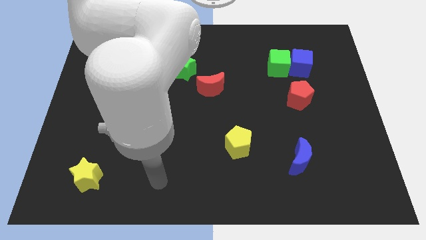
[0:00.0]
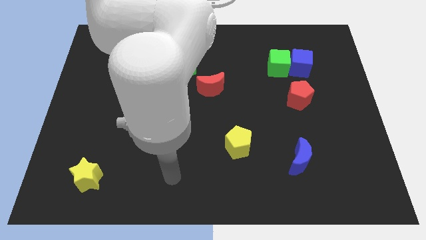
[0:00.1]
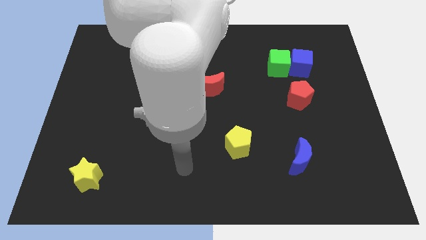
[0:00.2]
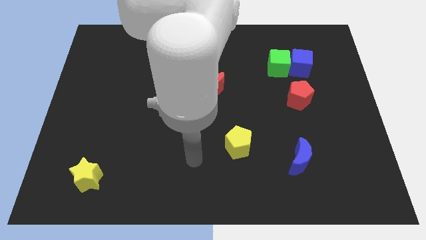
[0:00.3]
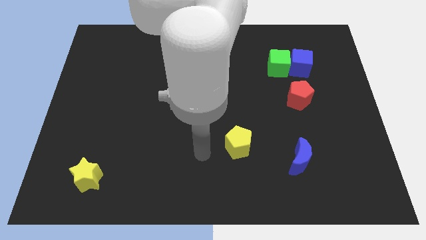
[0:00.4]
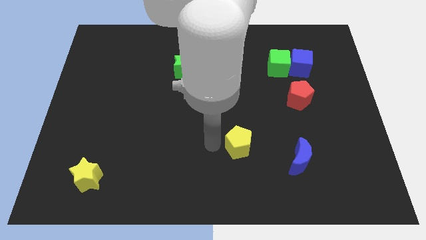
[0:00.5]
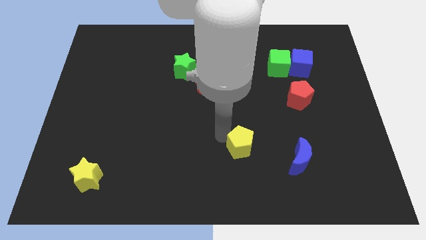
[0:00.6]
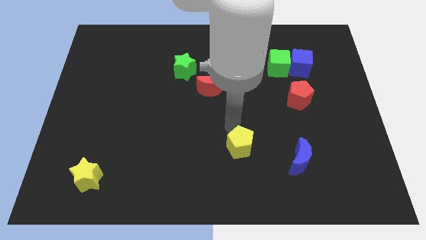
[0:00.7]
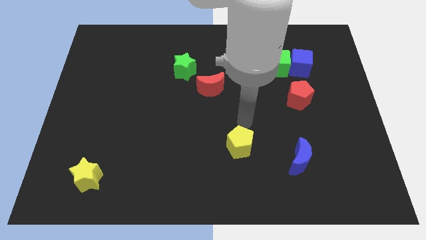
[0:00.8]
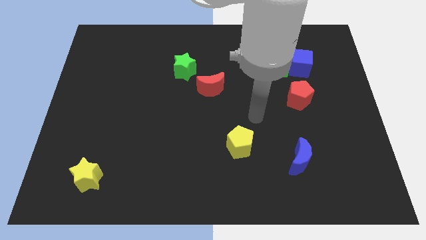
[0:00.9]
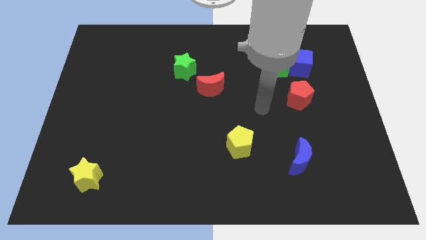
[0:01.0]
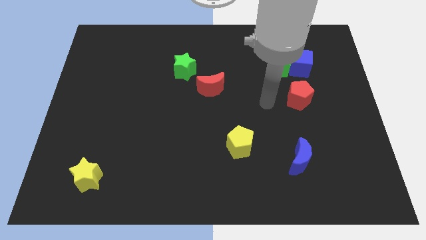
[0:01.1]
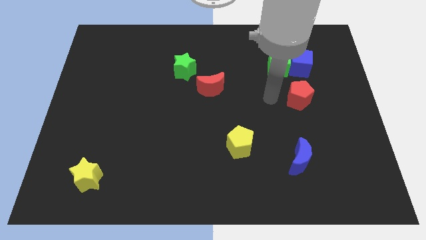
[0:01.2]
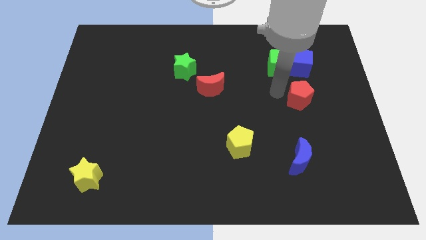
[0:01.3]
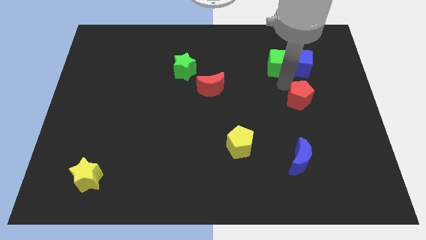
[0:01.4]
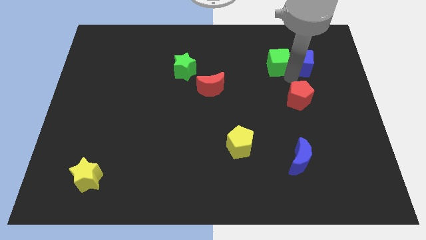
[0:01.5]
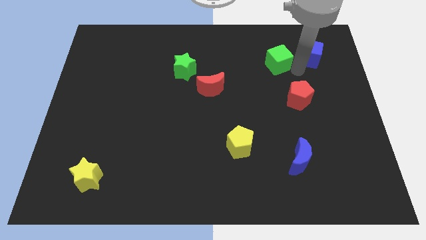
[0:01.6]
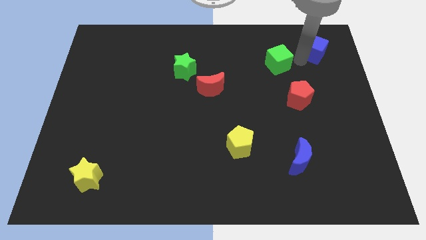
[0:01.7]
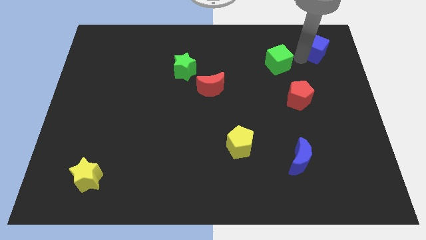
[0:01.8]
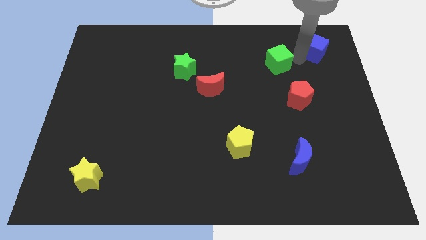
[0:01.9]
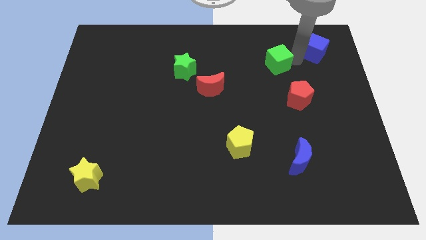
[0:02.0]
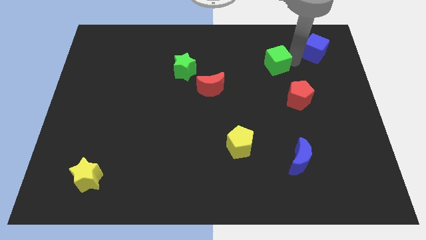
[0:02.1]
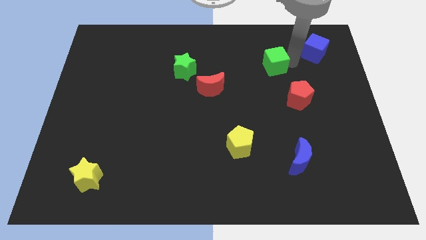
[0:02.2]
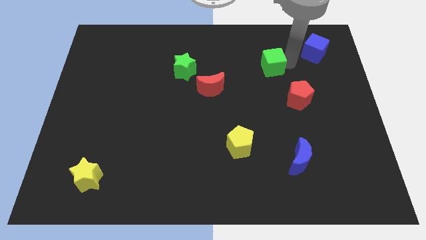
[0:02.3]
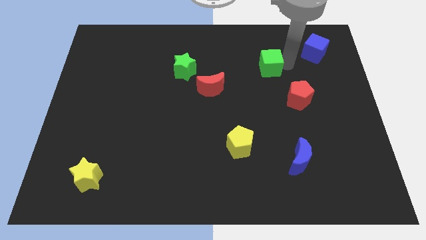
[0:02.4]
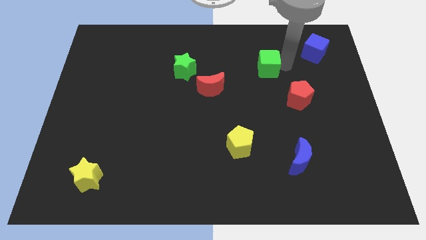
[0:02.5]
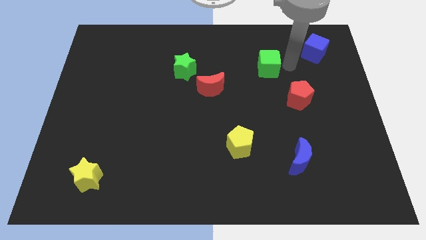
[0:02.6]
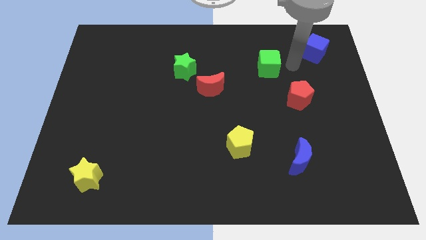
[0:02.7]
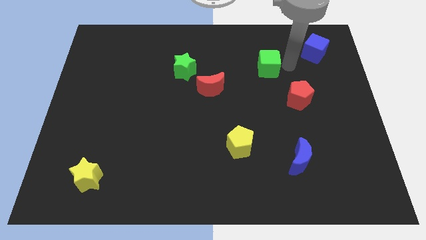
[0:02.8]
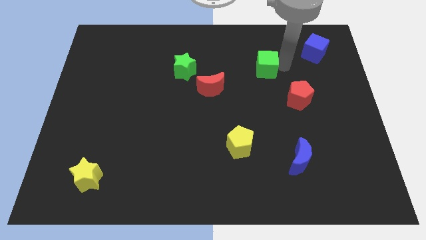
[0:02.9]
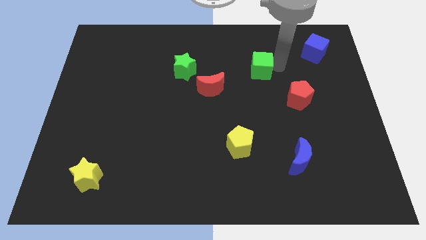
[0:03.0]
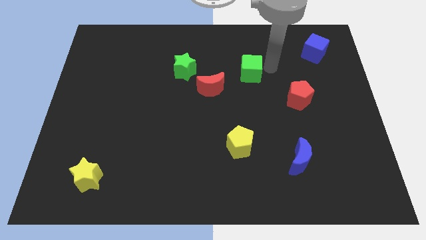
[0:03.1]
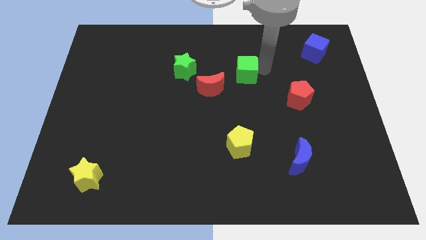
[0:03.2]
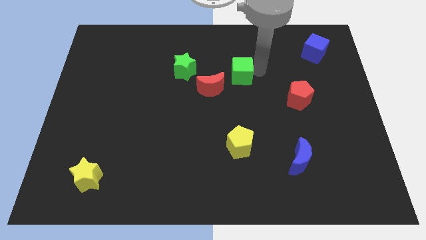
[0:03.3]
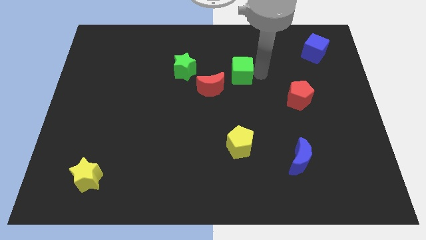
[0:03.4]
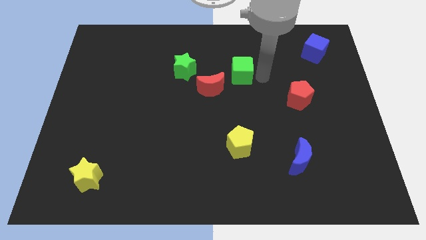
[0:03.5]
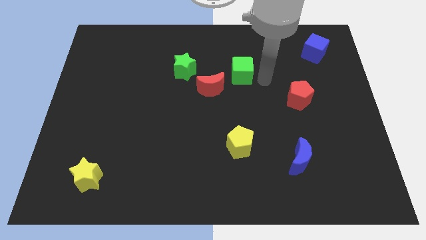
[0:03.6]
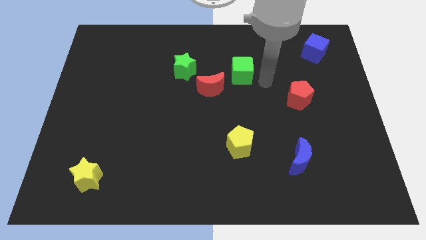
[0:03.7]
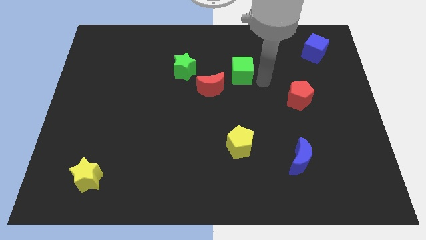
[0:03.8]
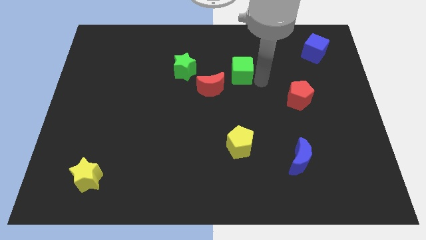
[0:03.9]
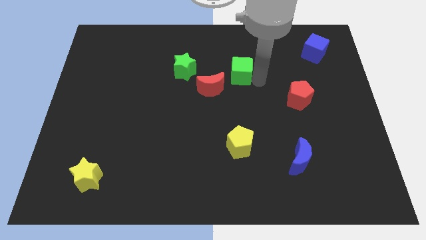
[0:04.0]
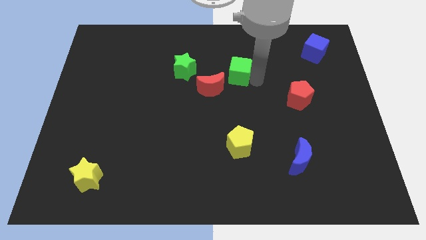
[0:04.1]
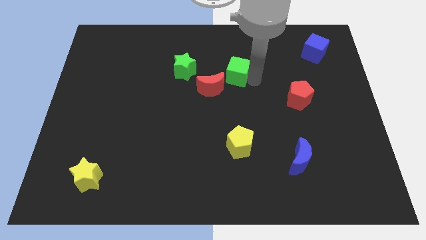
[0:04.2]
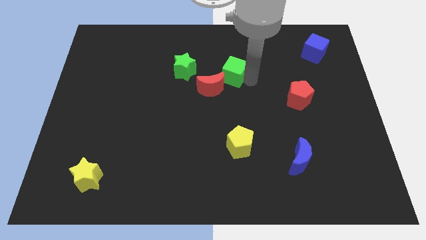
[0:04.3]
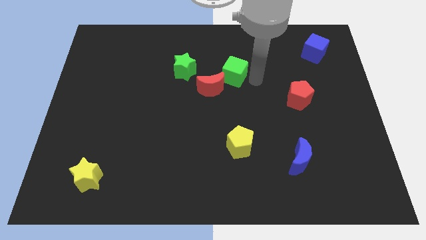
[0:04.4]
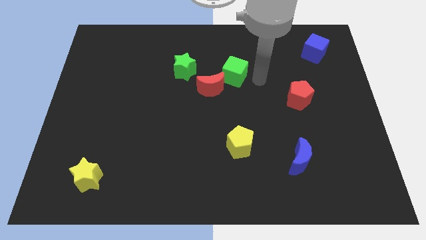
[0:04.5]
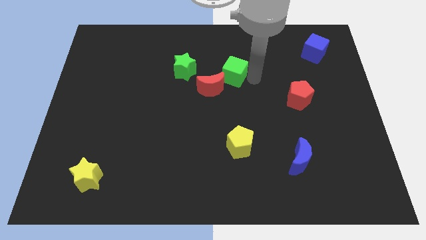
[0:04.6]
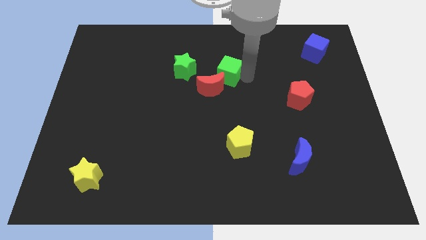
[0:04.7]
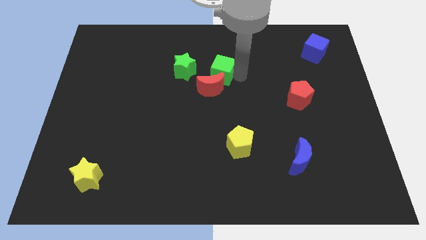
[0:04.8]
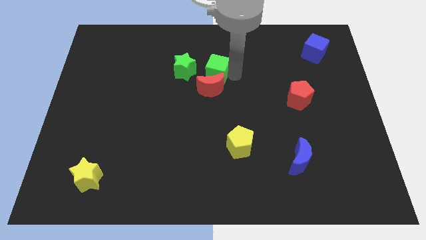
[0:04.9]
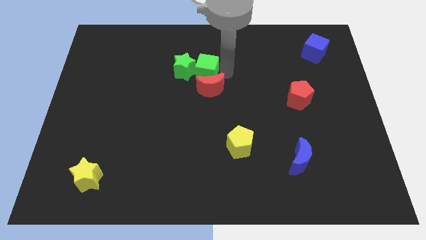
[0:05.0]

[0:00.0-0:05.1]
put the green cube towards the green star

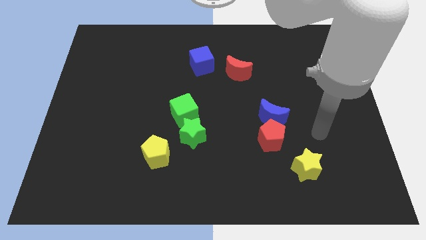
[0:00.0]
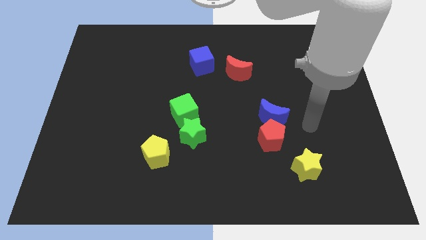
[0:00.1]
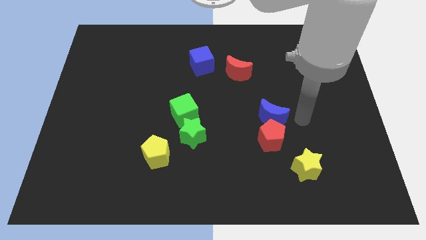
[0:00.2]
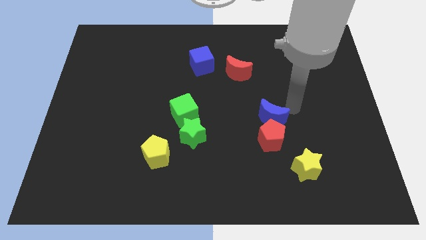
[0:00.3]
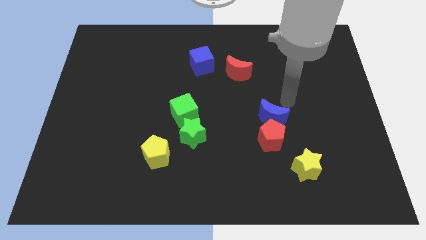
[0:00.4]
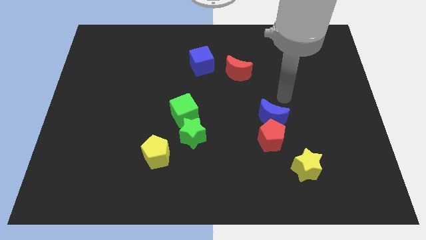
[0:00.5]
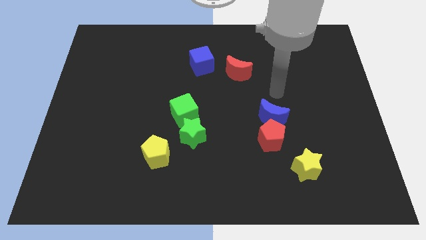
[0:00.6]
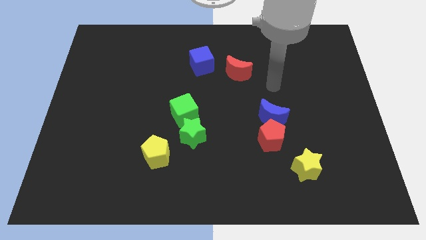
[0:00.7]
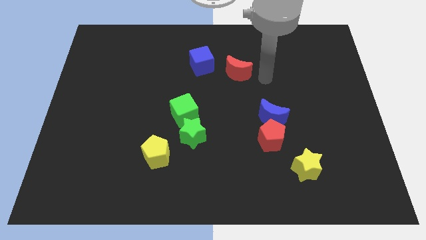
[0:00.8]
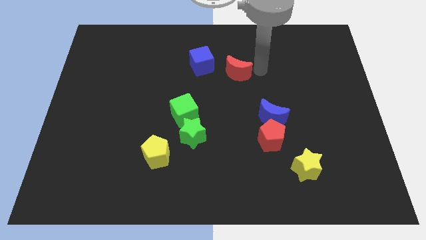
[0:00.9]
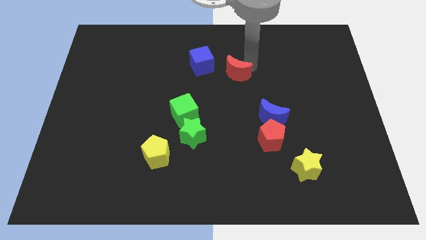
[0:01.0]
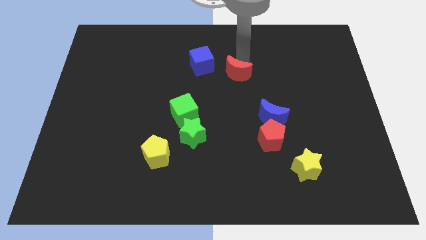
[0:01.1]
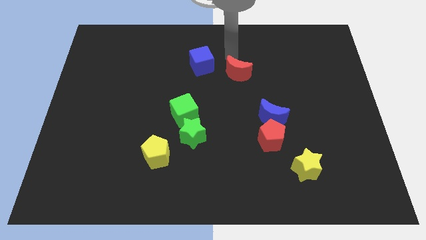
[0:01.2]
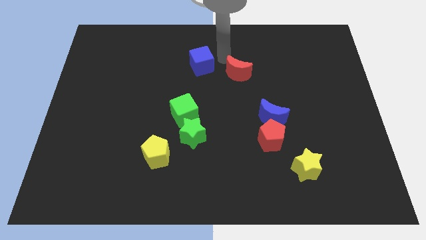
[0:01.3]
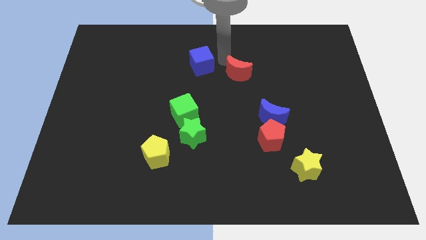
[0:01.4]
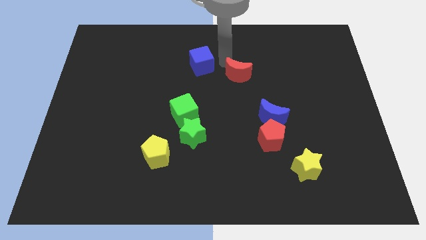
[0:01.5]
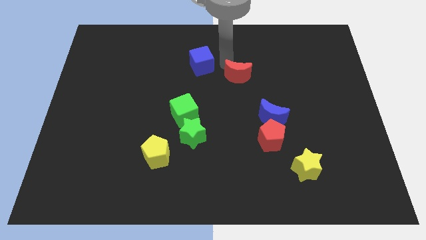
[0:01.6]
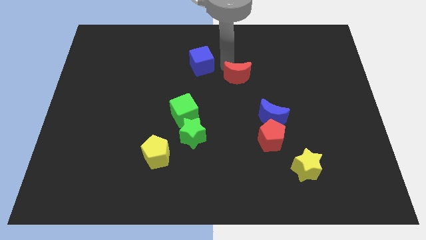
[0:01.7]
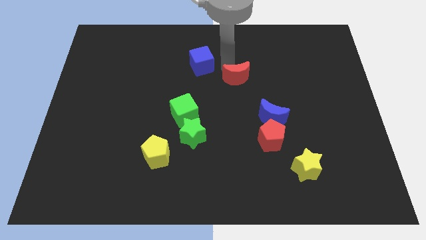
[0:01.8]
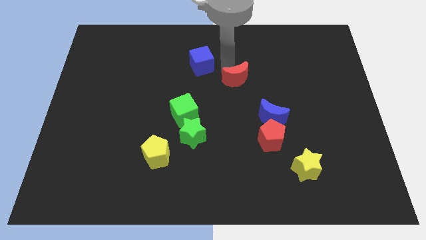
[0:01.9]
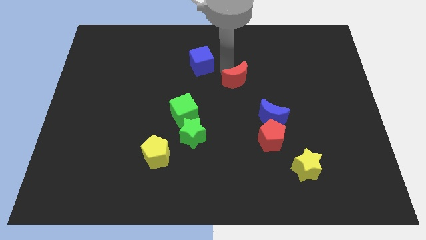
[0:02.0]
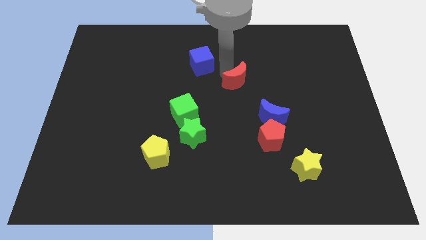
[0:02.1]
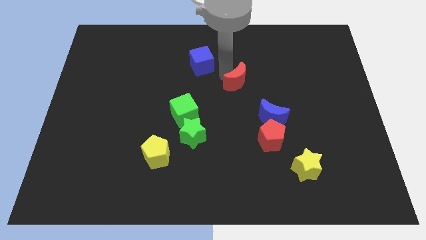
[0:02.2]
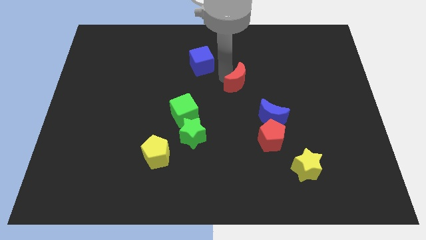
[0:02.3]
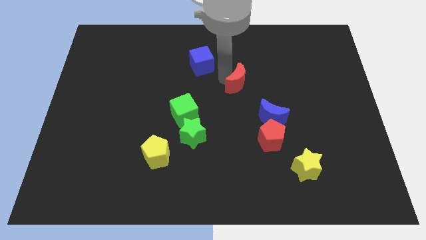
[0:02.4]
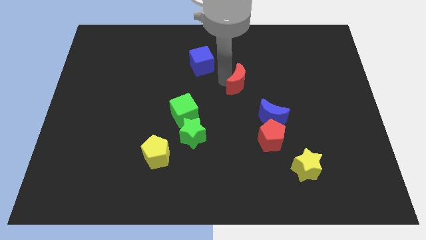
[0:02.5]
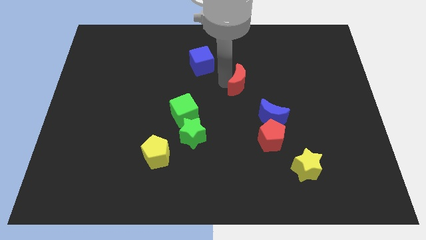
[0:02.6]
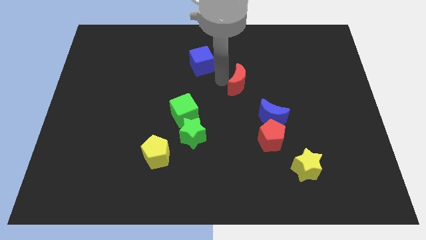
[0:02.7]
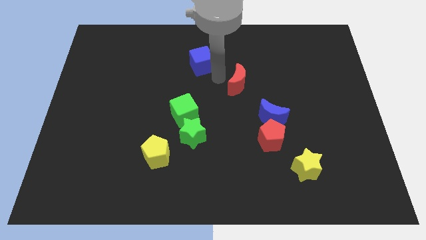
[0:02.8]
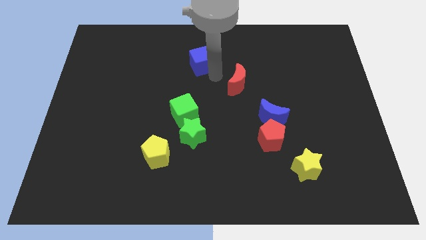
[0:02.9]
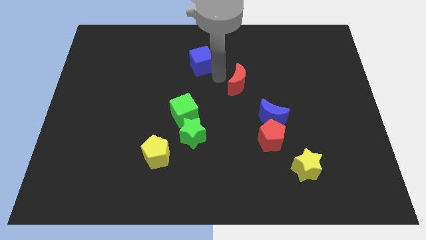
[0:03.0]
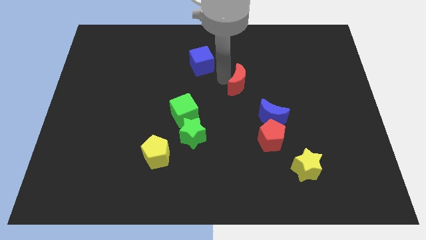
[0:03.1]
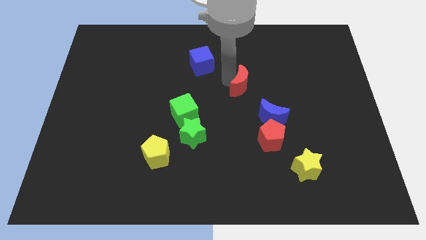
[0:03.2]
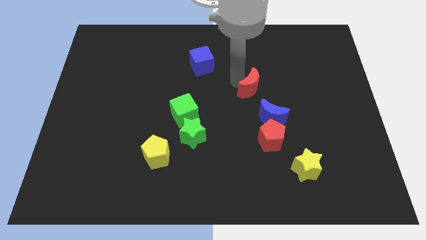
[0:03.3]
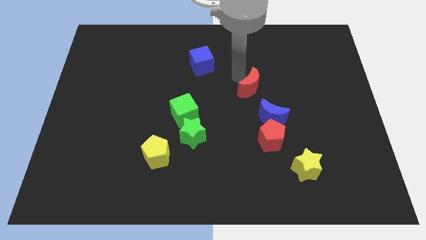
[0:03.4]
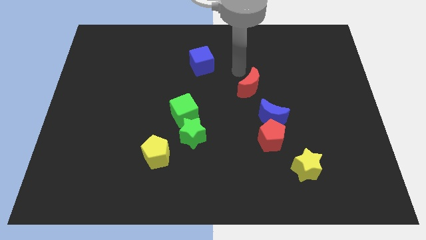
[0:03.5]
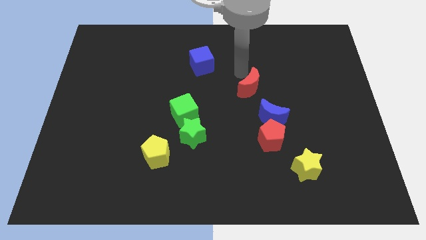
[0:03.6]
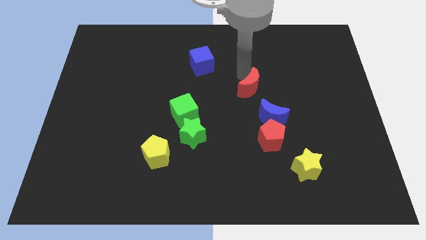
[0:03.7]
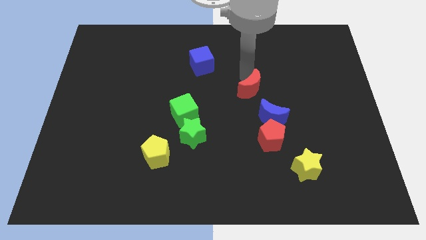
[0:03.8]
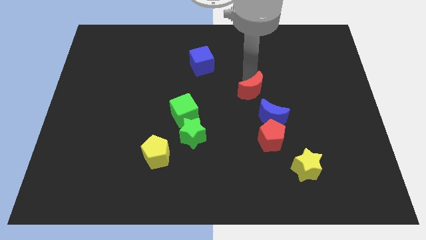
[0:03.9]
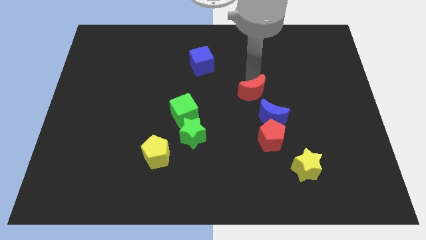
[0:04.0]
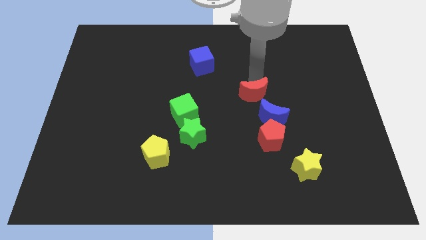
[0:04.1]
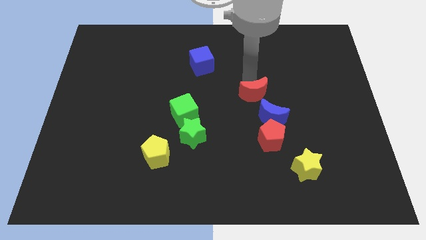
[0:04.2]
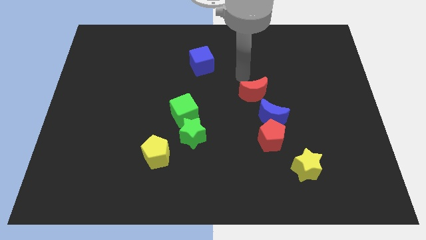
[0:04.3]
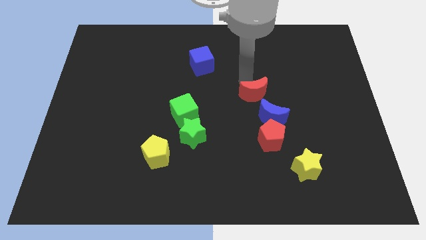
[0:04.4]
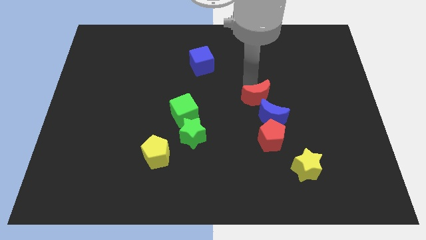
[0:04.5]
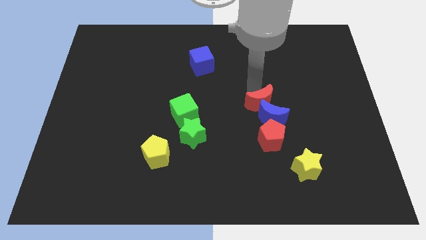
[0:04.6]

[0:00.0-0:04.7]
move the red moon to the blue moon
